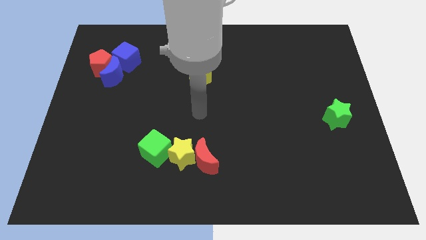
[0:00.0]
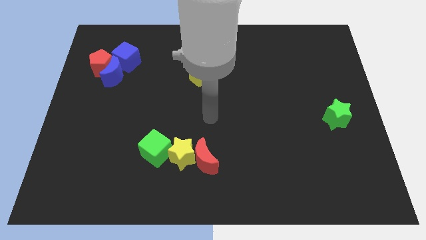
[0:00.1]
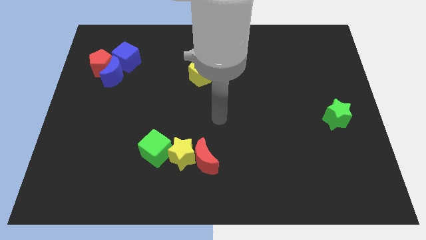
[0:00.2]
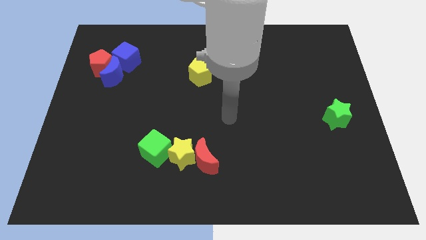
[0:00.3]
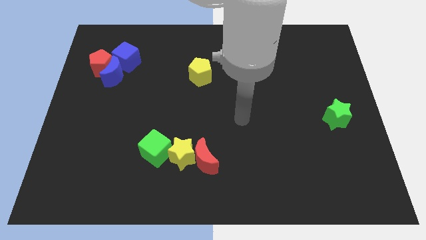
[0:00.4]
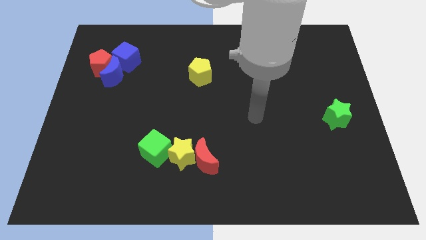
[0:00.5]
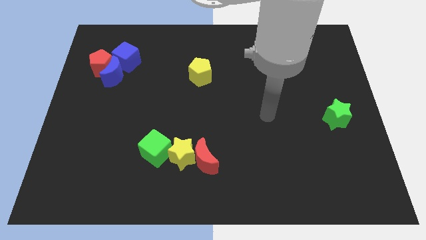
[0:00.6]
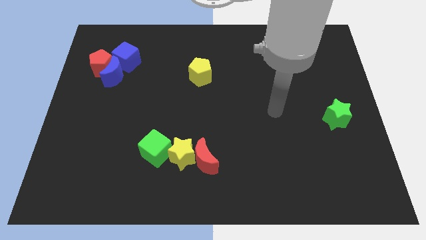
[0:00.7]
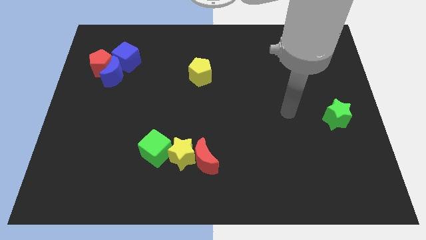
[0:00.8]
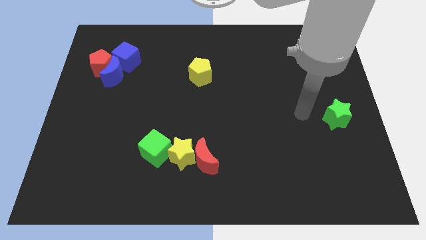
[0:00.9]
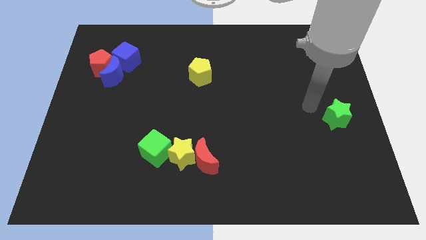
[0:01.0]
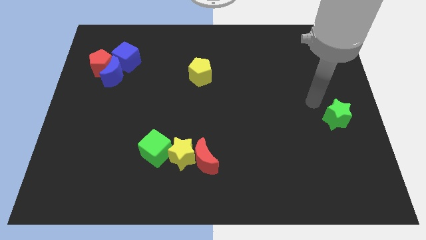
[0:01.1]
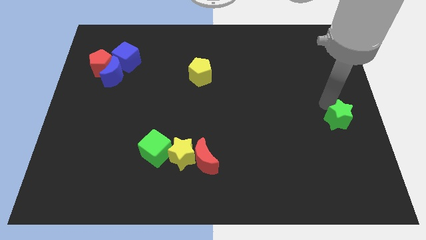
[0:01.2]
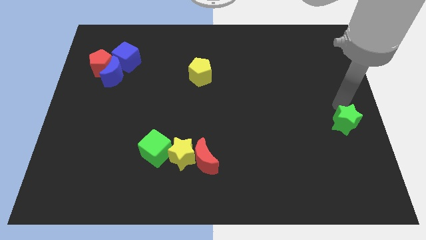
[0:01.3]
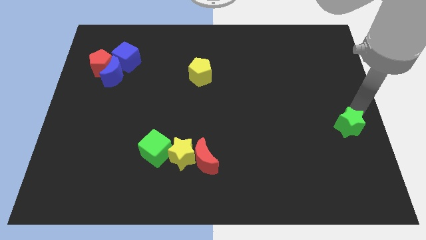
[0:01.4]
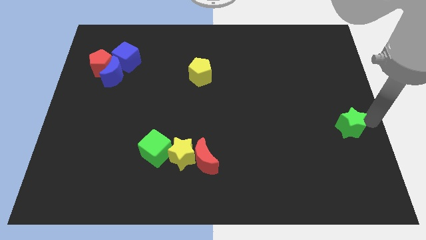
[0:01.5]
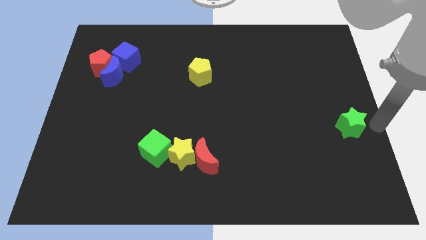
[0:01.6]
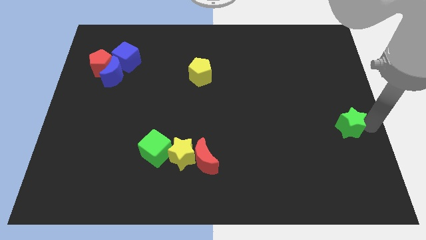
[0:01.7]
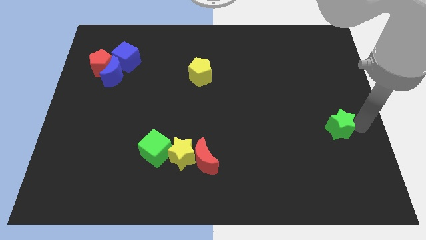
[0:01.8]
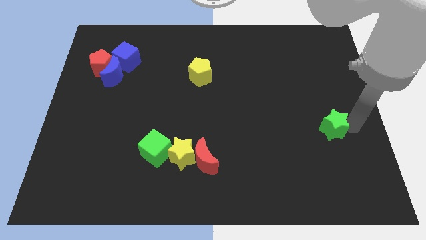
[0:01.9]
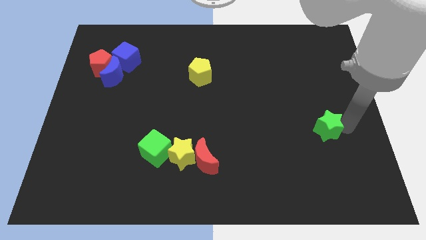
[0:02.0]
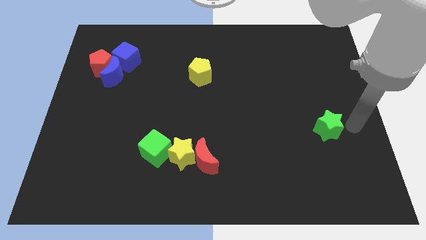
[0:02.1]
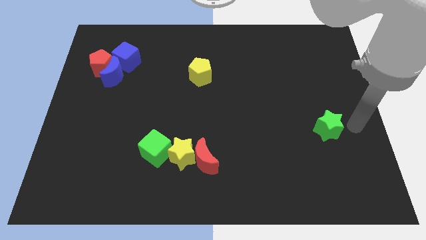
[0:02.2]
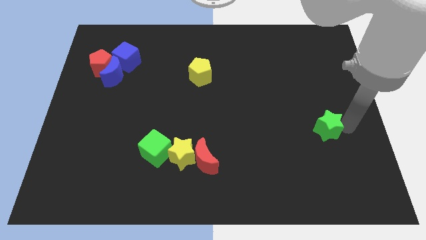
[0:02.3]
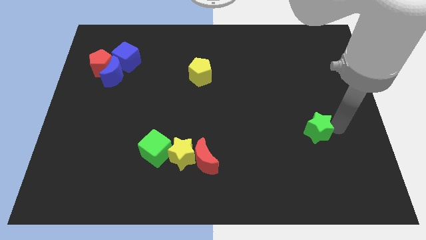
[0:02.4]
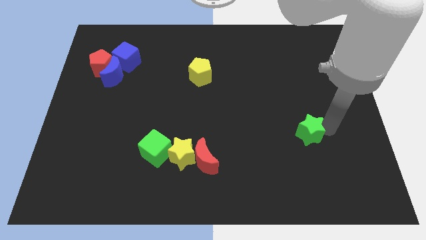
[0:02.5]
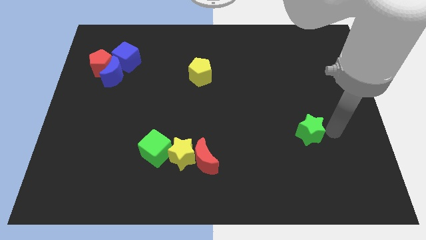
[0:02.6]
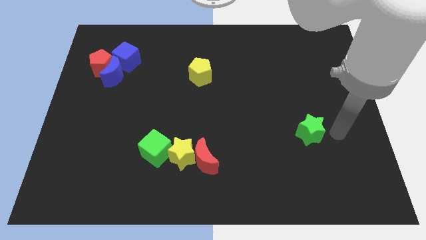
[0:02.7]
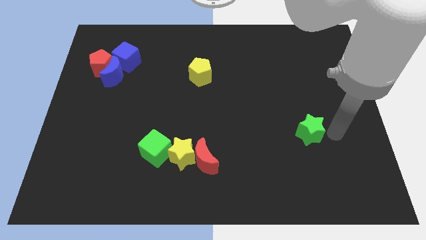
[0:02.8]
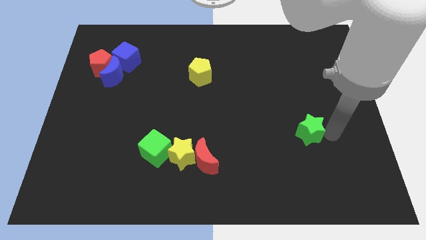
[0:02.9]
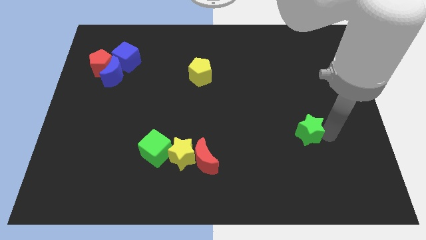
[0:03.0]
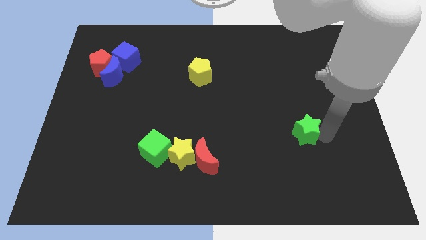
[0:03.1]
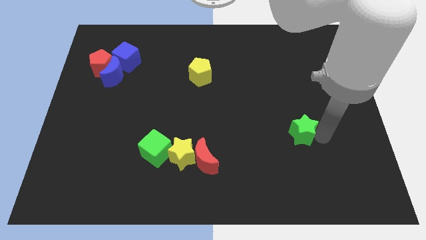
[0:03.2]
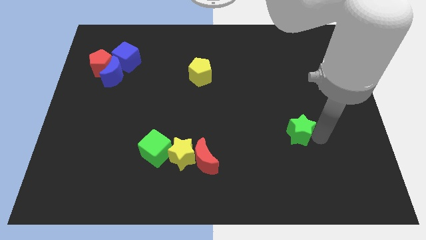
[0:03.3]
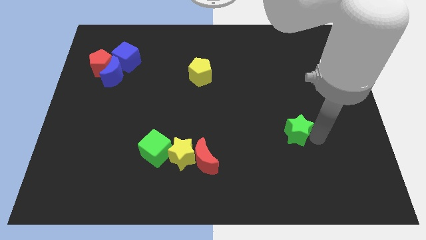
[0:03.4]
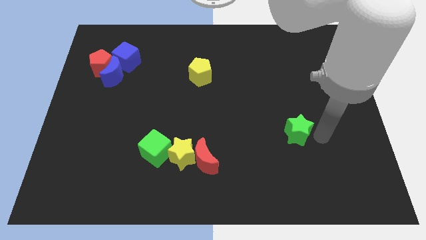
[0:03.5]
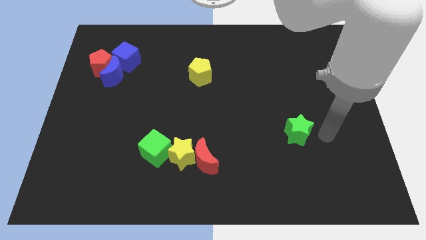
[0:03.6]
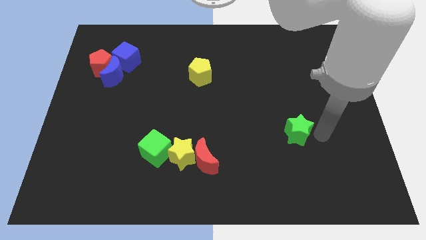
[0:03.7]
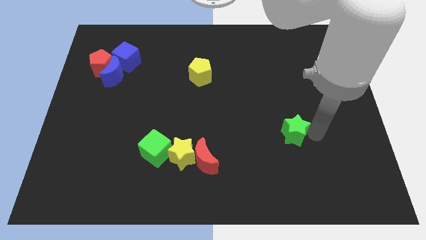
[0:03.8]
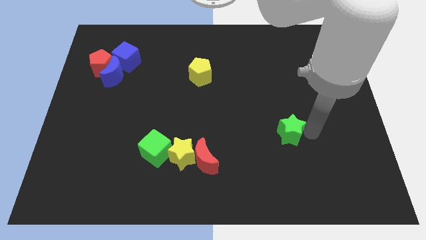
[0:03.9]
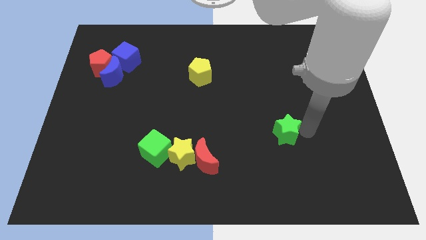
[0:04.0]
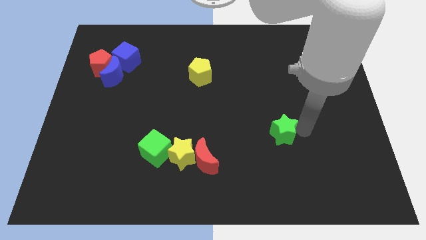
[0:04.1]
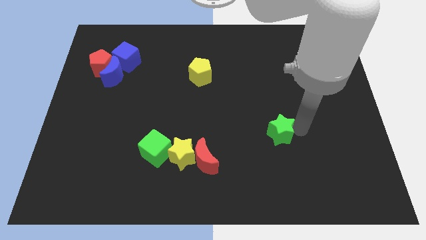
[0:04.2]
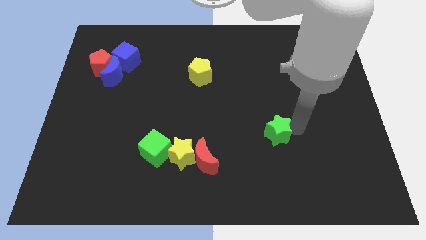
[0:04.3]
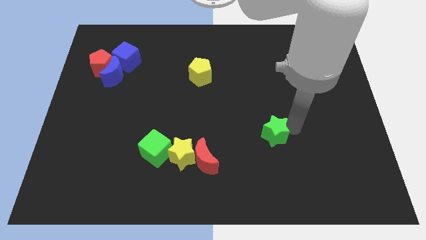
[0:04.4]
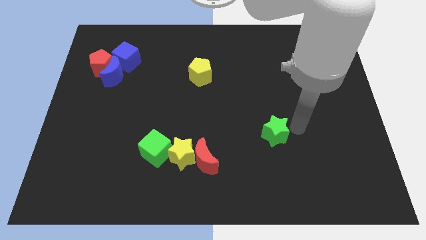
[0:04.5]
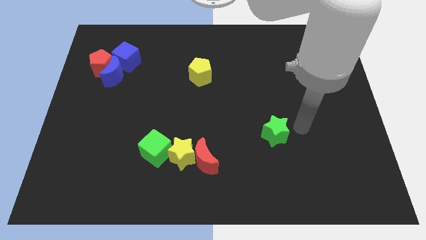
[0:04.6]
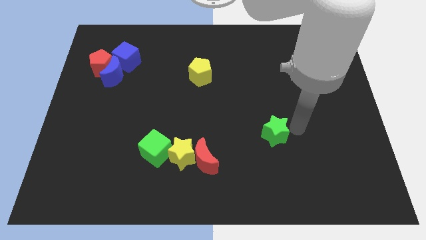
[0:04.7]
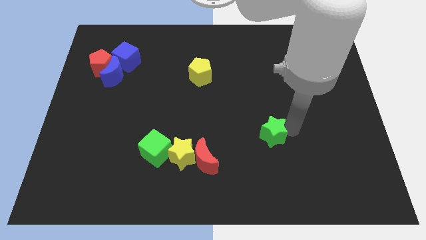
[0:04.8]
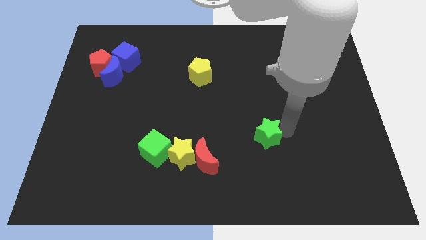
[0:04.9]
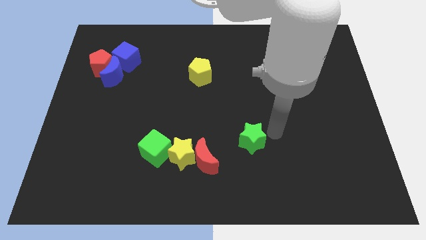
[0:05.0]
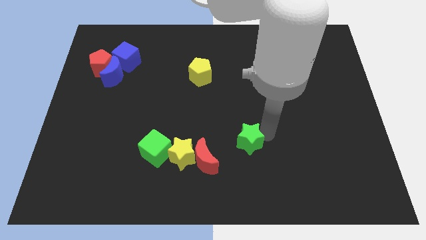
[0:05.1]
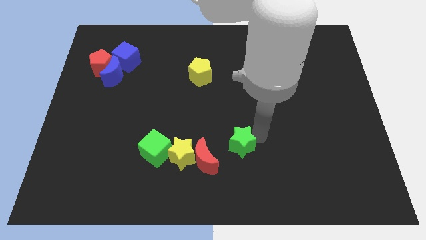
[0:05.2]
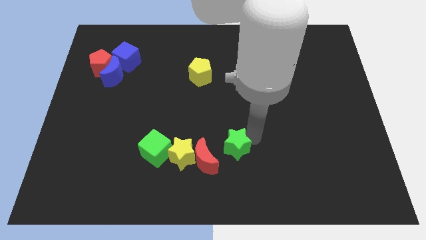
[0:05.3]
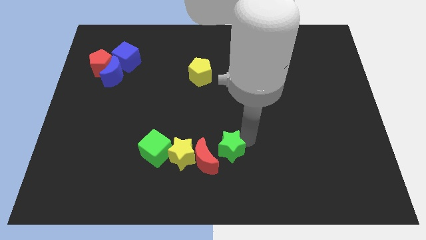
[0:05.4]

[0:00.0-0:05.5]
slide the green star to the red moon

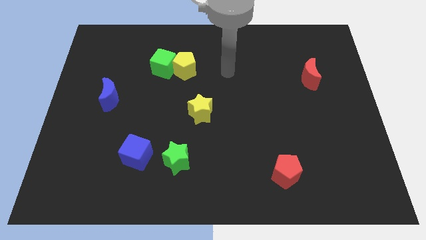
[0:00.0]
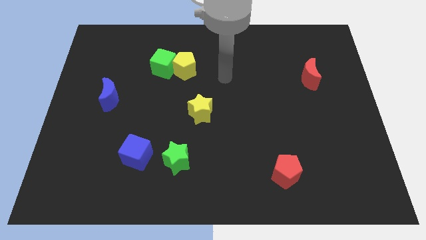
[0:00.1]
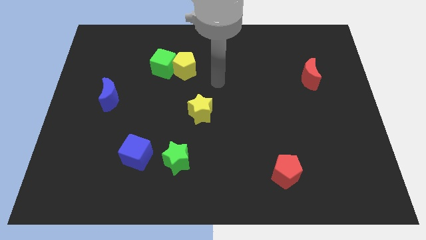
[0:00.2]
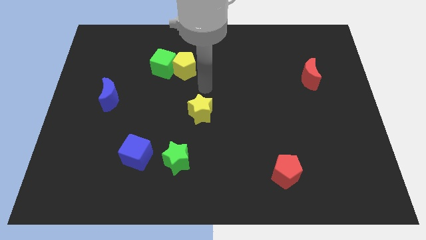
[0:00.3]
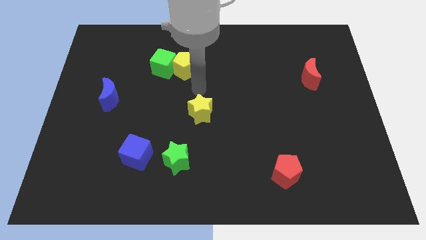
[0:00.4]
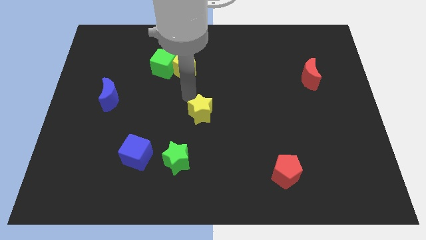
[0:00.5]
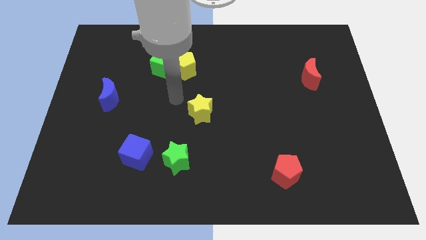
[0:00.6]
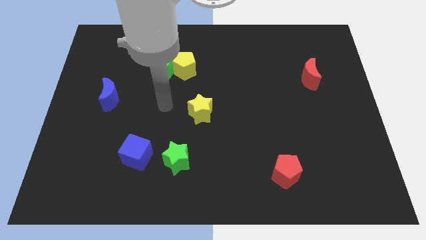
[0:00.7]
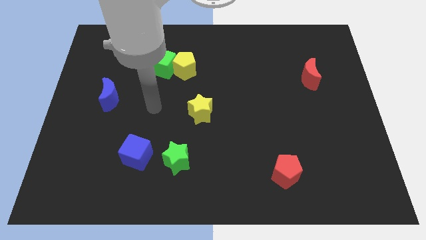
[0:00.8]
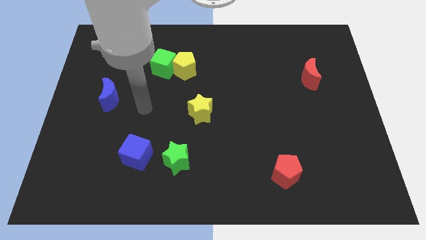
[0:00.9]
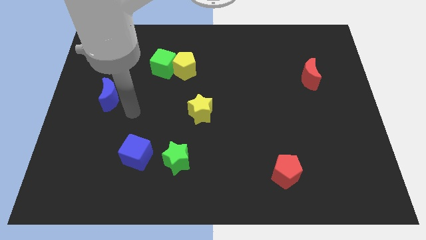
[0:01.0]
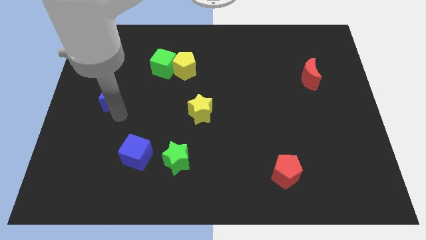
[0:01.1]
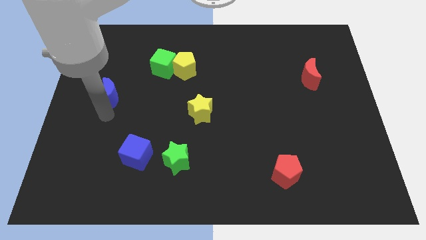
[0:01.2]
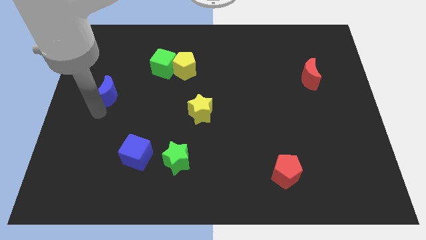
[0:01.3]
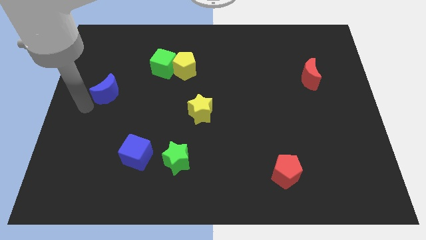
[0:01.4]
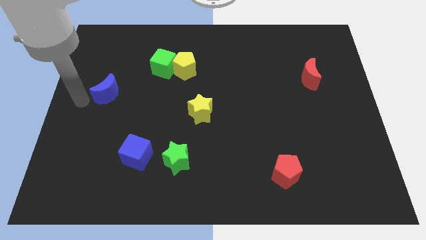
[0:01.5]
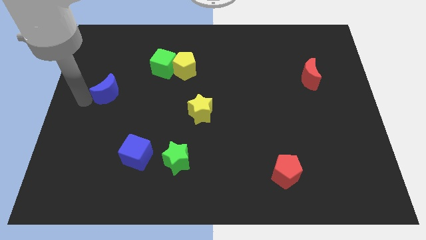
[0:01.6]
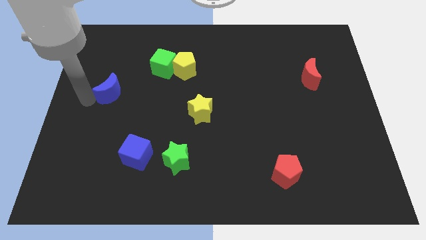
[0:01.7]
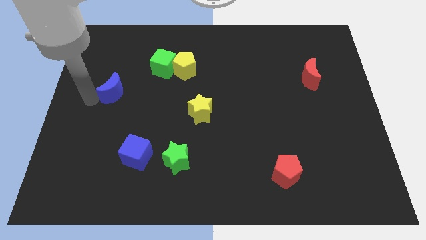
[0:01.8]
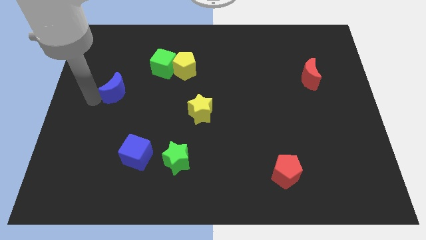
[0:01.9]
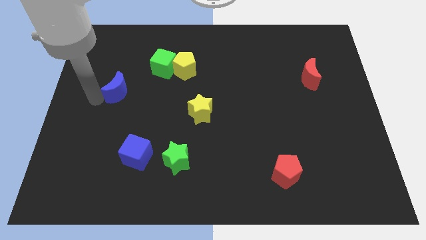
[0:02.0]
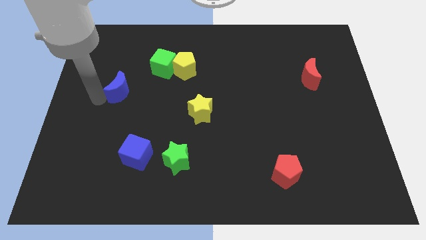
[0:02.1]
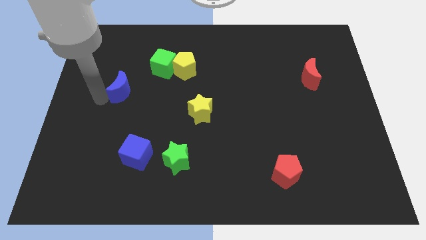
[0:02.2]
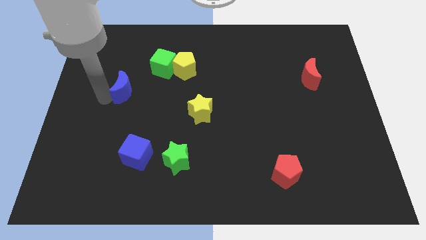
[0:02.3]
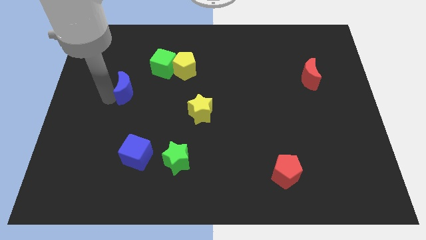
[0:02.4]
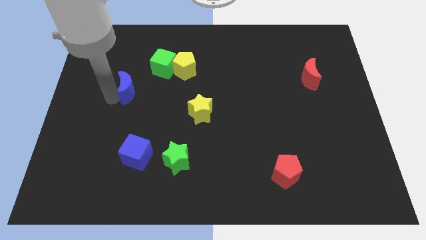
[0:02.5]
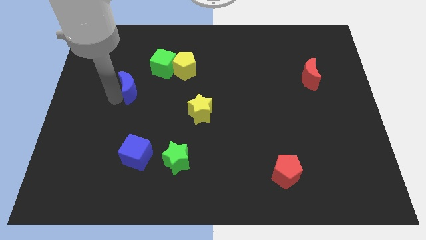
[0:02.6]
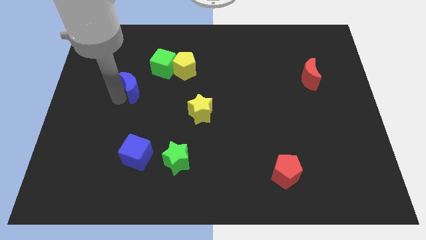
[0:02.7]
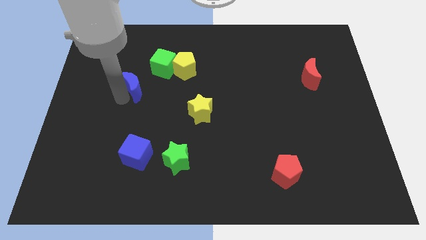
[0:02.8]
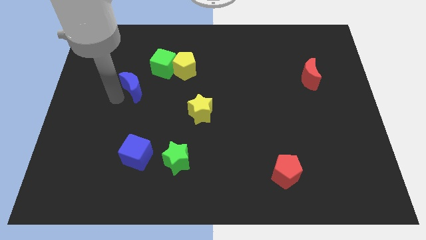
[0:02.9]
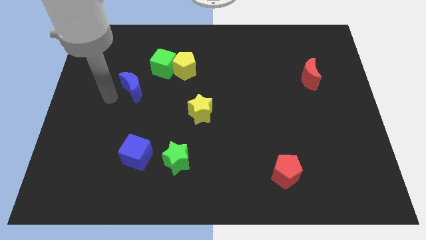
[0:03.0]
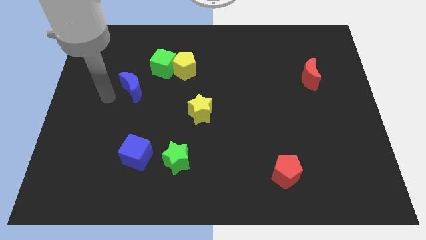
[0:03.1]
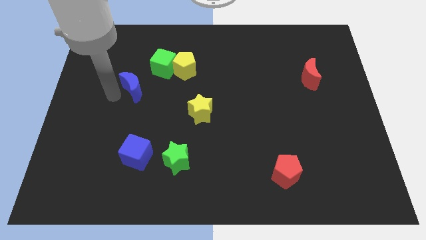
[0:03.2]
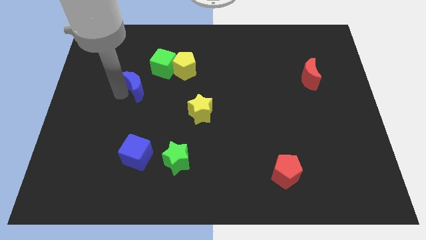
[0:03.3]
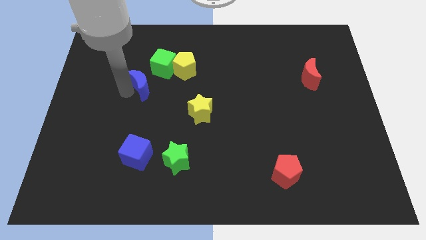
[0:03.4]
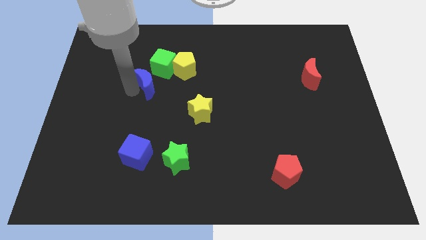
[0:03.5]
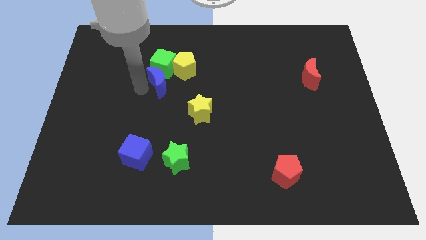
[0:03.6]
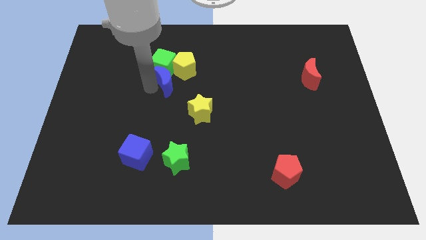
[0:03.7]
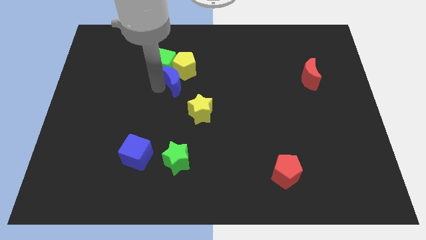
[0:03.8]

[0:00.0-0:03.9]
push the blue moon next to the yellow pentagon
